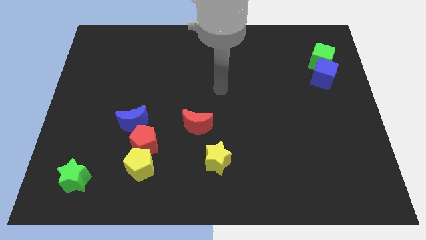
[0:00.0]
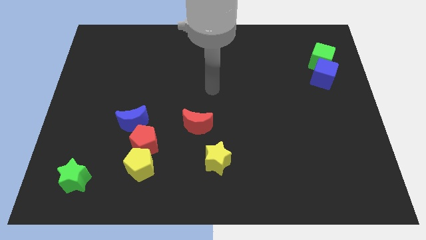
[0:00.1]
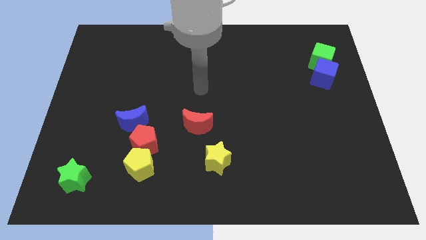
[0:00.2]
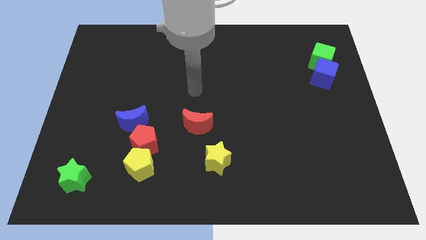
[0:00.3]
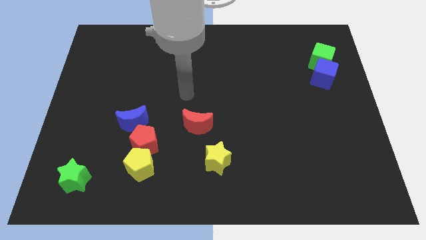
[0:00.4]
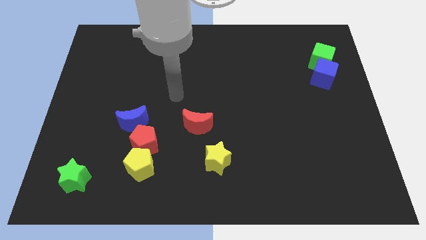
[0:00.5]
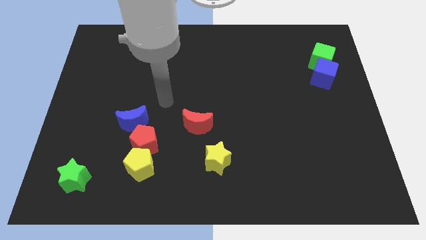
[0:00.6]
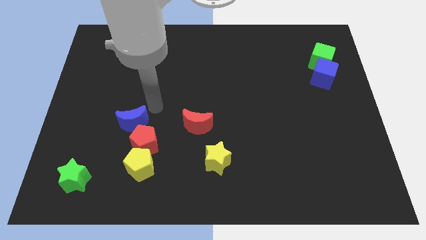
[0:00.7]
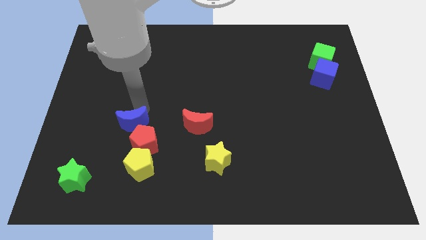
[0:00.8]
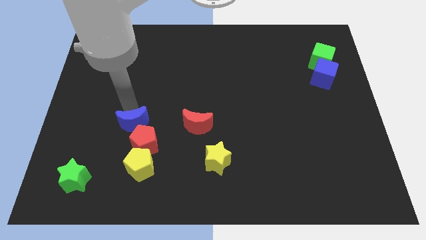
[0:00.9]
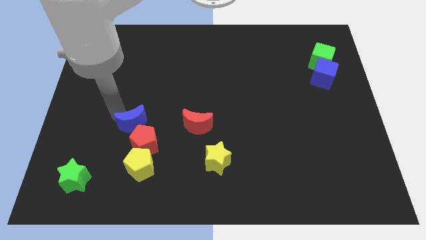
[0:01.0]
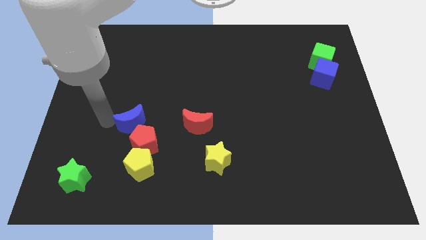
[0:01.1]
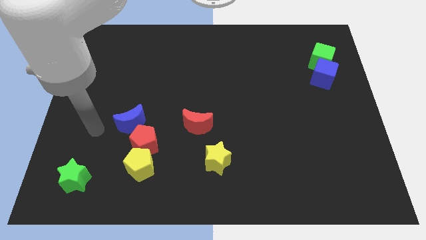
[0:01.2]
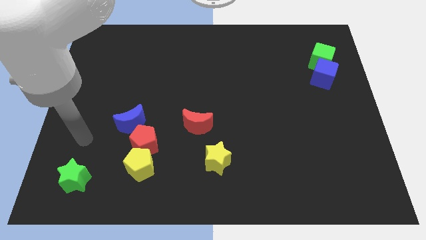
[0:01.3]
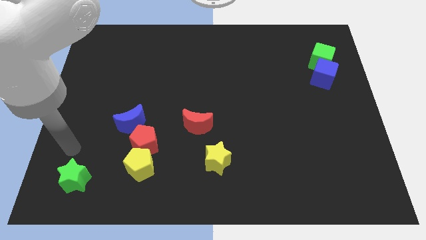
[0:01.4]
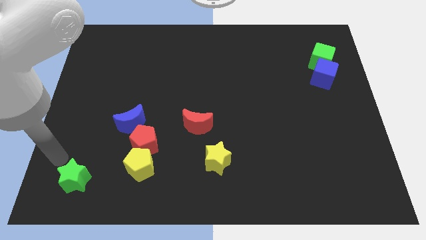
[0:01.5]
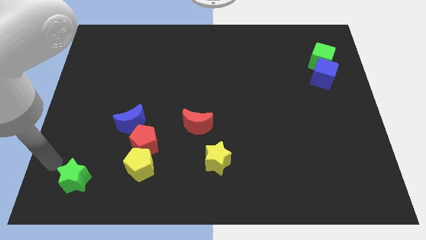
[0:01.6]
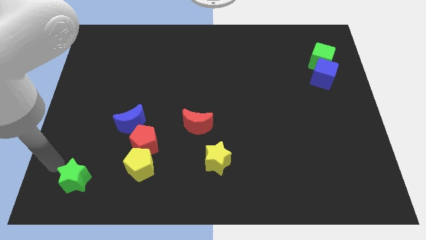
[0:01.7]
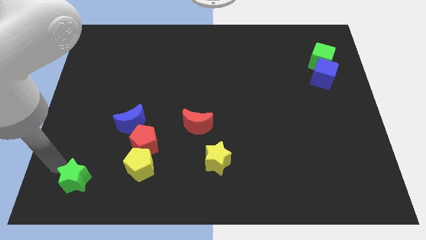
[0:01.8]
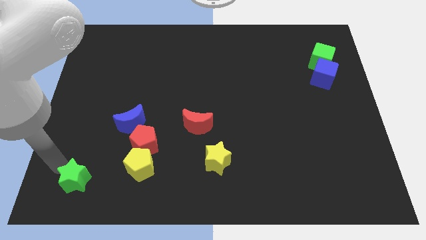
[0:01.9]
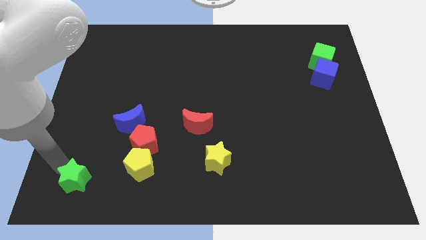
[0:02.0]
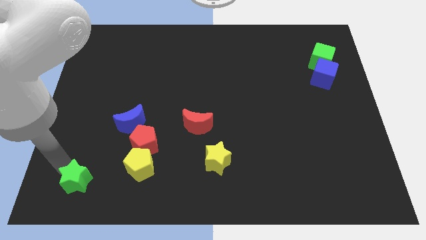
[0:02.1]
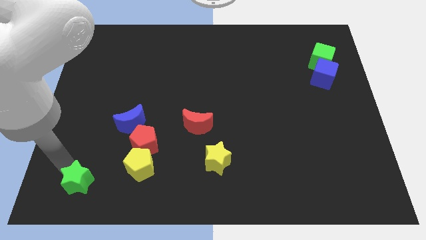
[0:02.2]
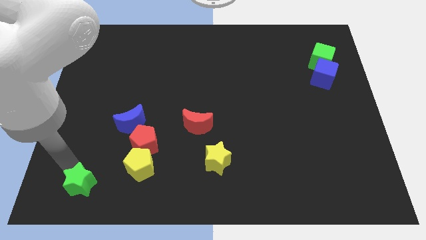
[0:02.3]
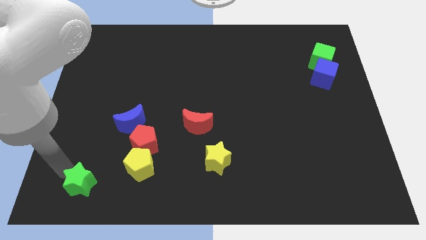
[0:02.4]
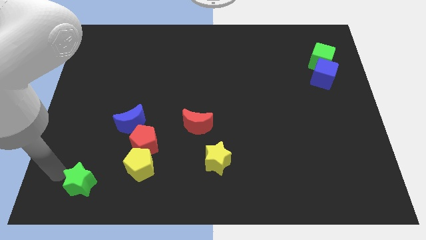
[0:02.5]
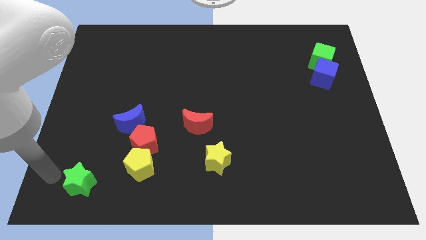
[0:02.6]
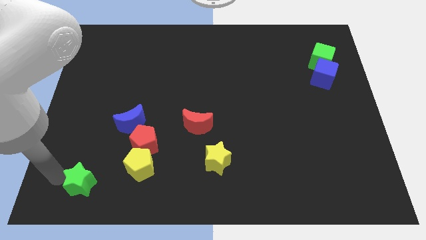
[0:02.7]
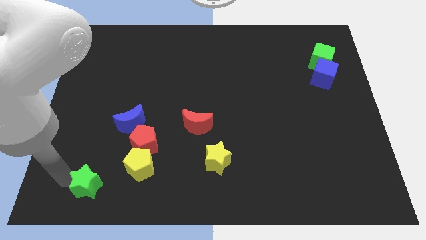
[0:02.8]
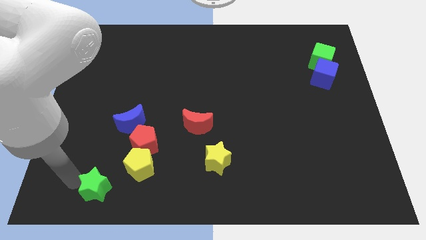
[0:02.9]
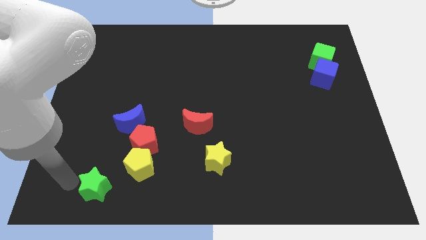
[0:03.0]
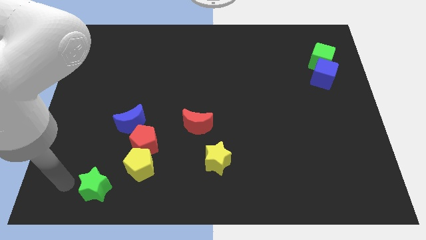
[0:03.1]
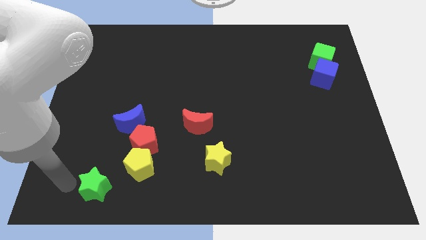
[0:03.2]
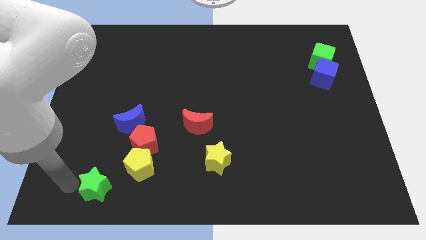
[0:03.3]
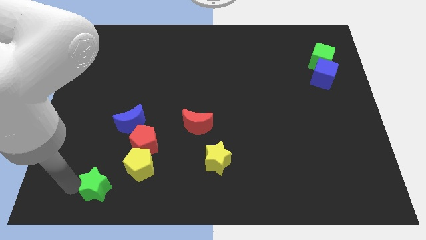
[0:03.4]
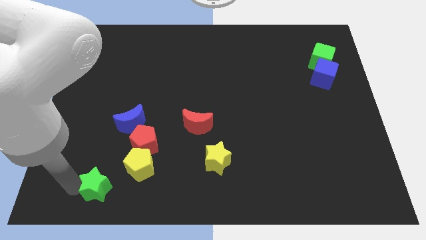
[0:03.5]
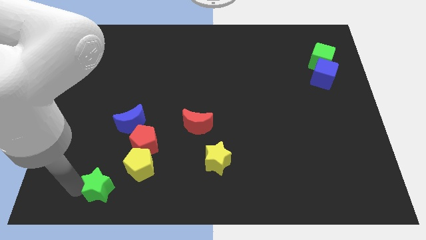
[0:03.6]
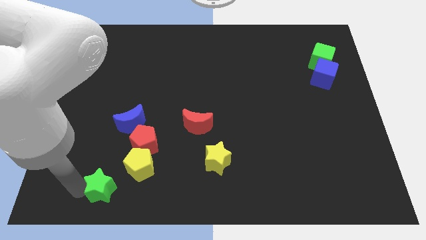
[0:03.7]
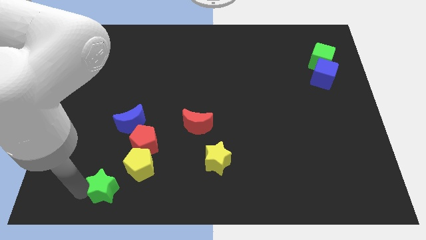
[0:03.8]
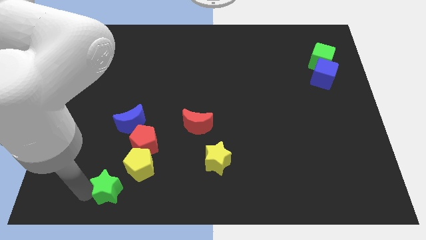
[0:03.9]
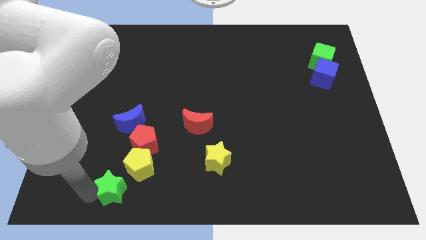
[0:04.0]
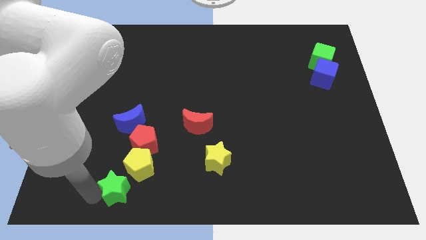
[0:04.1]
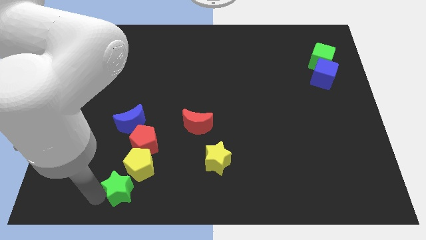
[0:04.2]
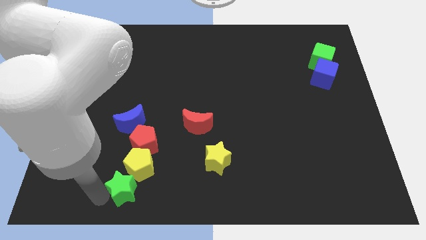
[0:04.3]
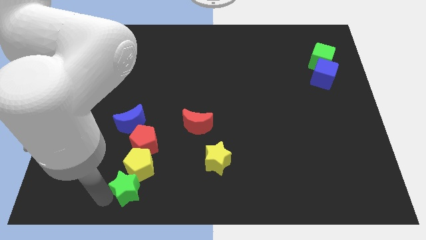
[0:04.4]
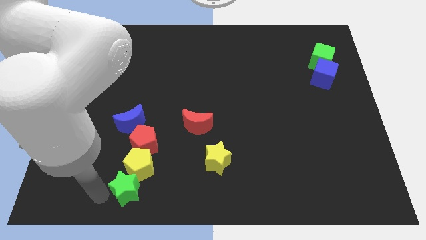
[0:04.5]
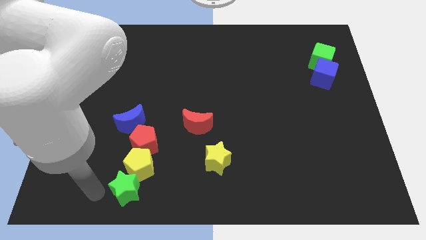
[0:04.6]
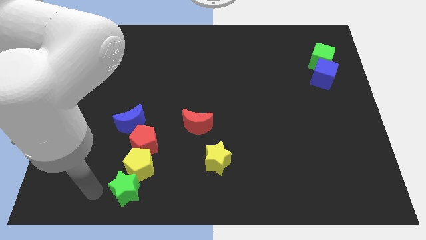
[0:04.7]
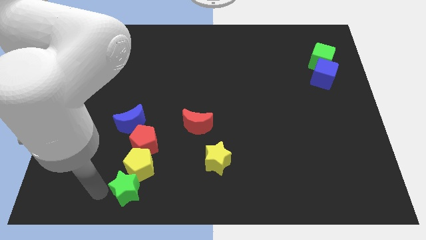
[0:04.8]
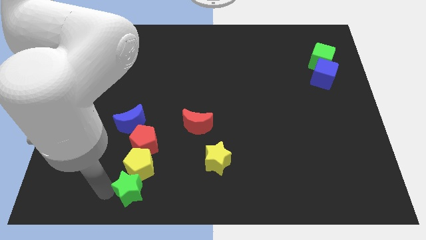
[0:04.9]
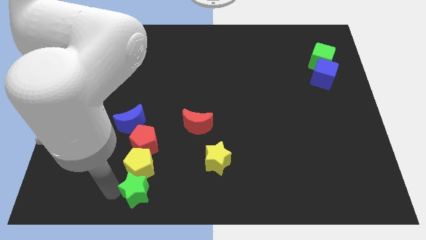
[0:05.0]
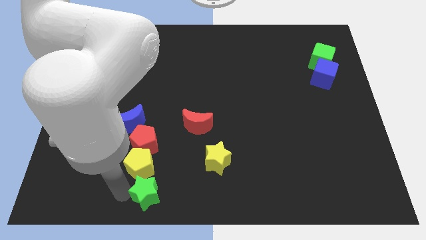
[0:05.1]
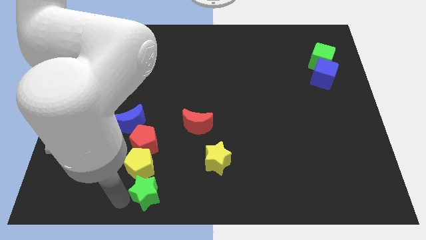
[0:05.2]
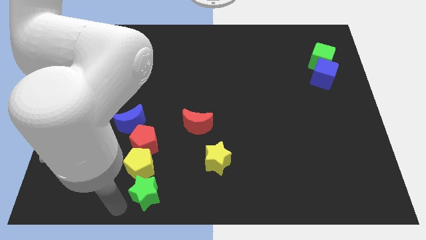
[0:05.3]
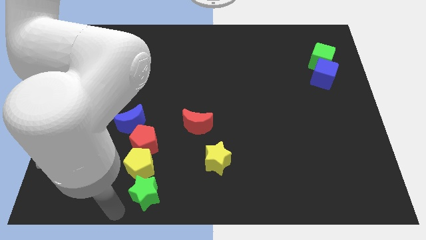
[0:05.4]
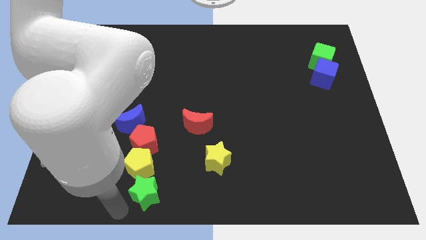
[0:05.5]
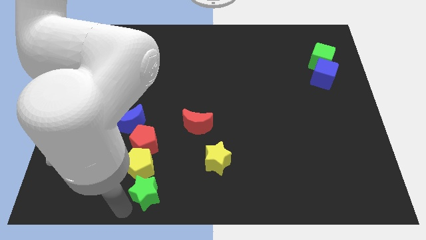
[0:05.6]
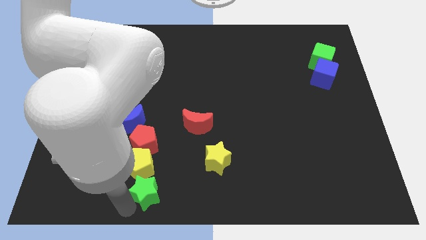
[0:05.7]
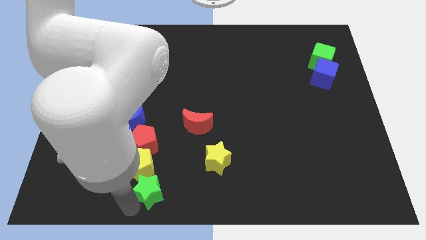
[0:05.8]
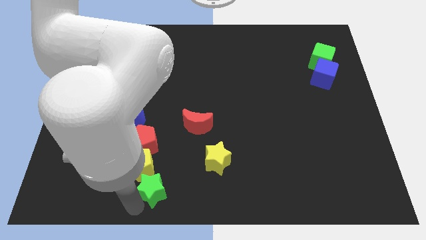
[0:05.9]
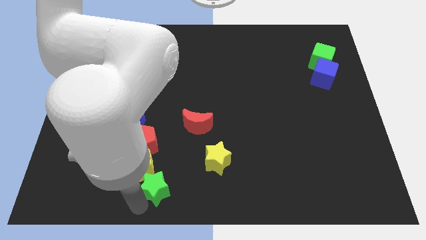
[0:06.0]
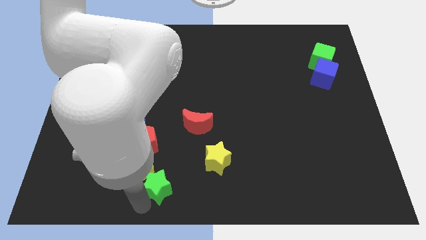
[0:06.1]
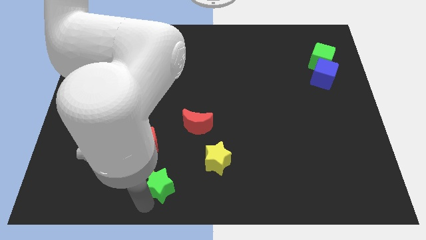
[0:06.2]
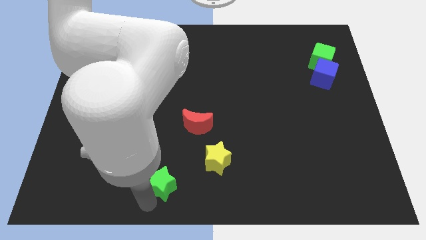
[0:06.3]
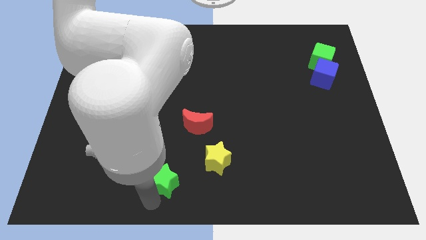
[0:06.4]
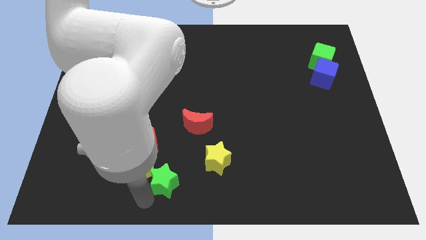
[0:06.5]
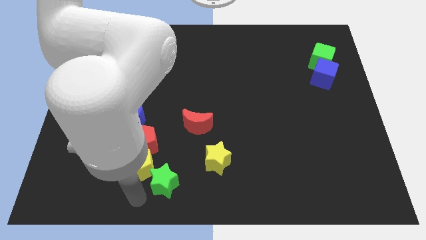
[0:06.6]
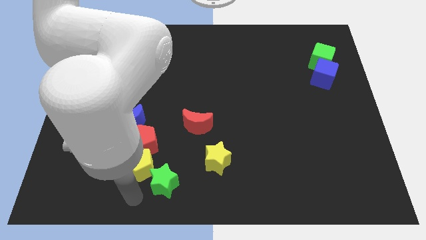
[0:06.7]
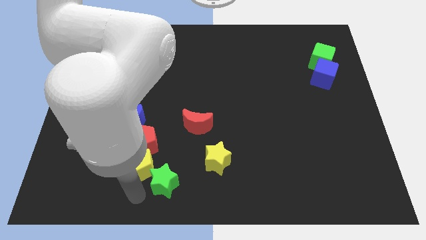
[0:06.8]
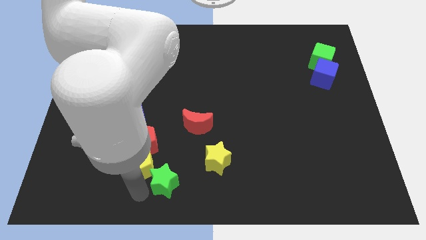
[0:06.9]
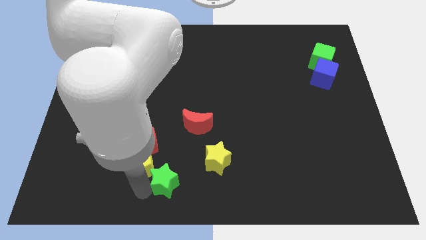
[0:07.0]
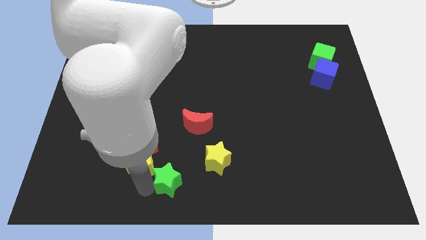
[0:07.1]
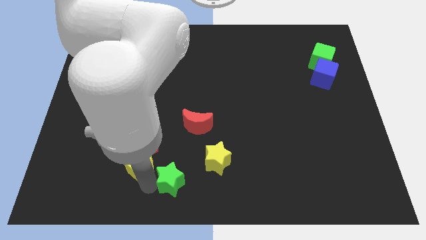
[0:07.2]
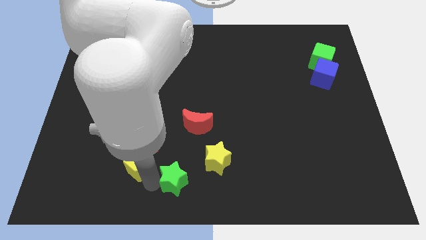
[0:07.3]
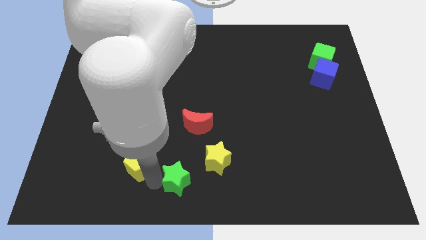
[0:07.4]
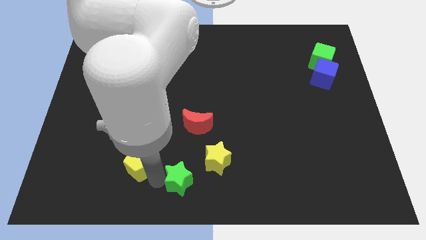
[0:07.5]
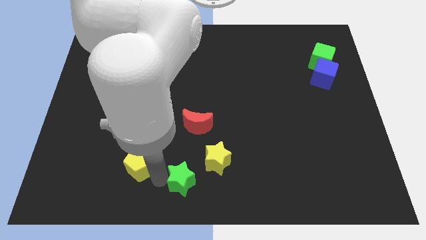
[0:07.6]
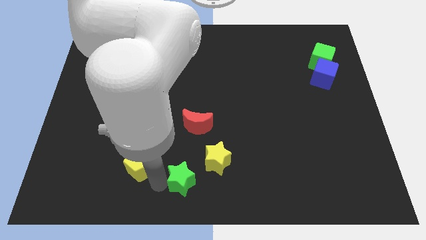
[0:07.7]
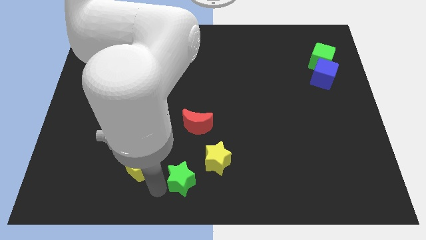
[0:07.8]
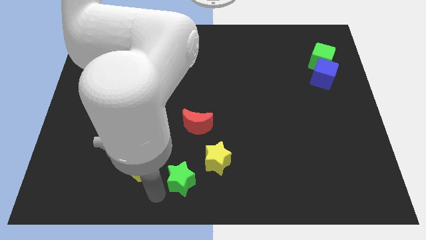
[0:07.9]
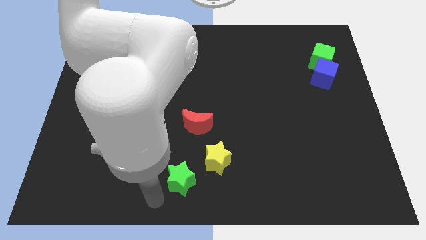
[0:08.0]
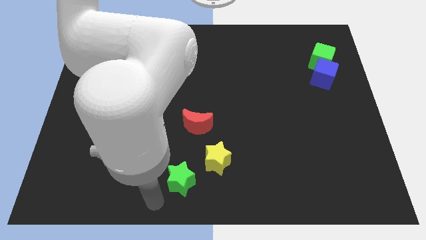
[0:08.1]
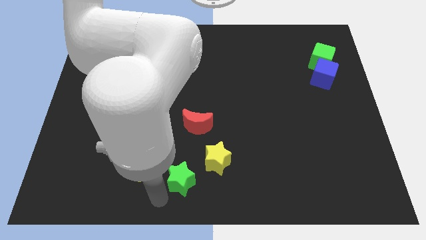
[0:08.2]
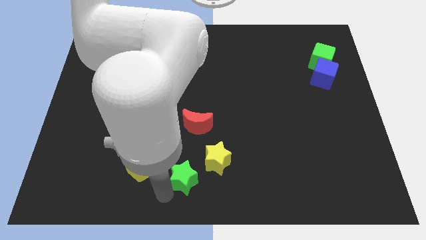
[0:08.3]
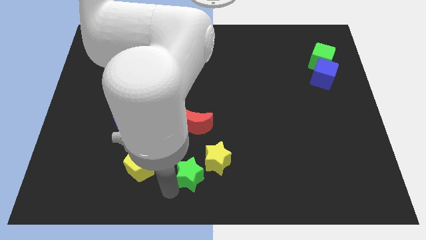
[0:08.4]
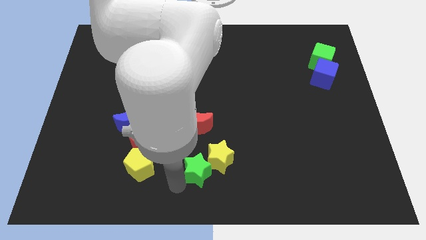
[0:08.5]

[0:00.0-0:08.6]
slide the green star to the yellow star
